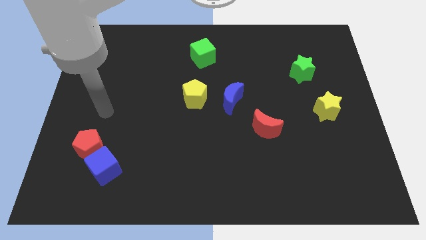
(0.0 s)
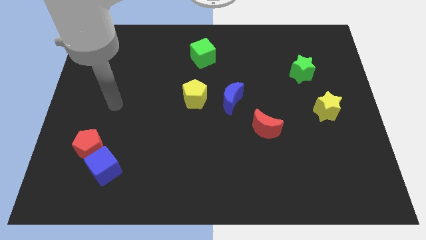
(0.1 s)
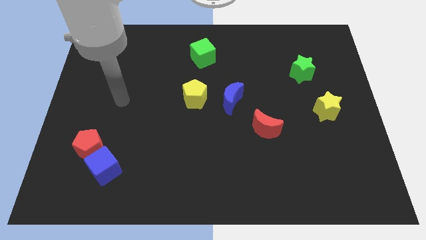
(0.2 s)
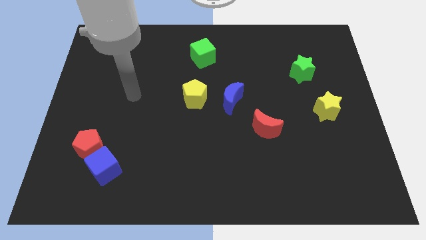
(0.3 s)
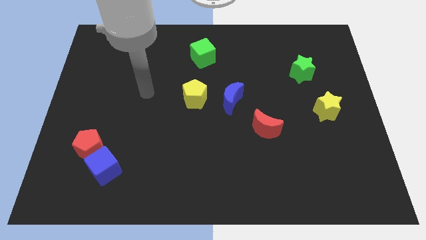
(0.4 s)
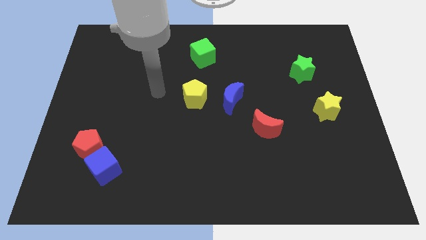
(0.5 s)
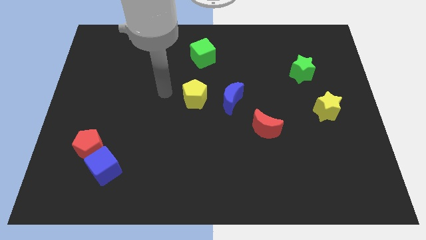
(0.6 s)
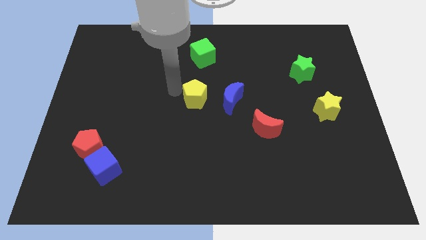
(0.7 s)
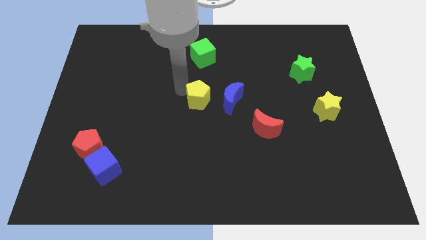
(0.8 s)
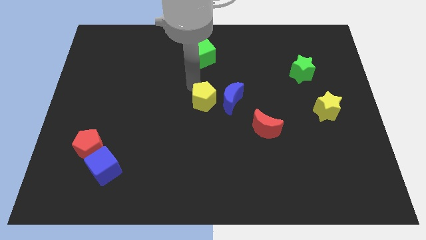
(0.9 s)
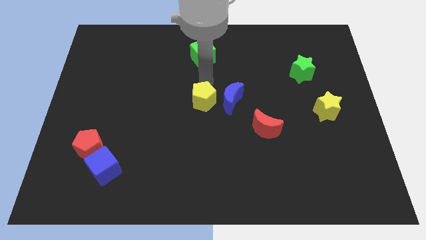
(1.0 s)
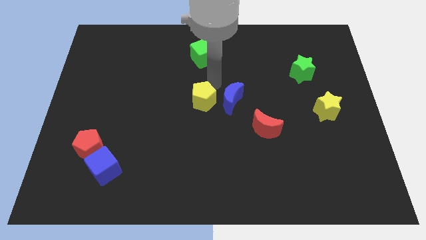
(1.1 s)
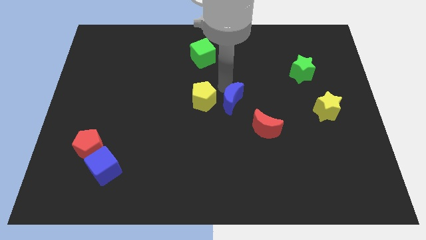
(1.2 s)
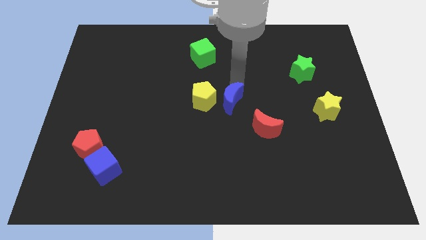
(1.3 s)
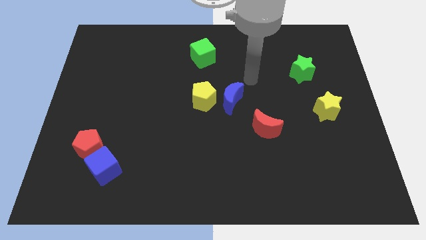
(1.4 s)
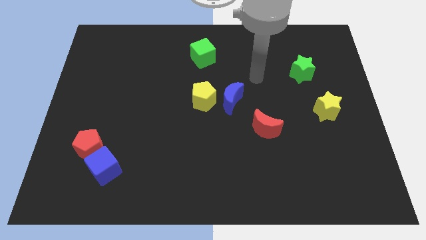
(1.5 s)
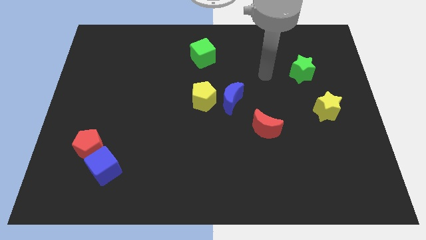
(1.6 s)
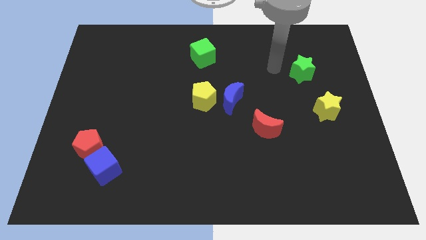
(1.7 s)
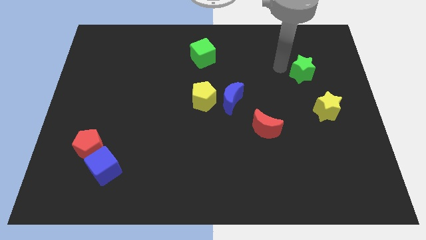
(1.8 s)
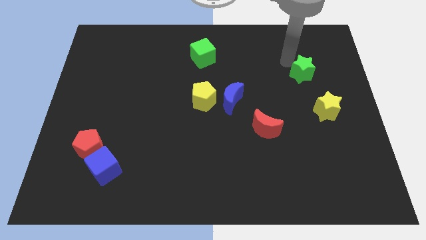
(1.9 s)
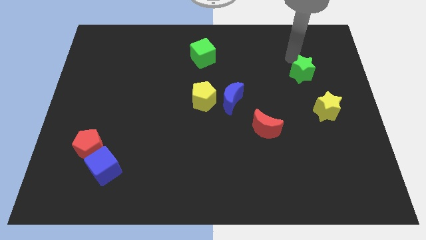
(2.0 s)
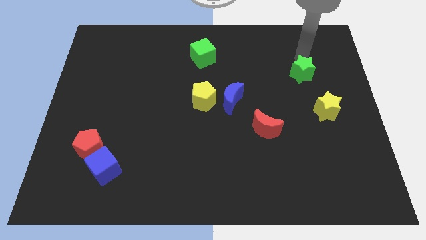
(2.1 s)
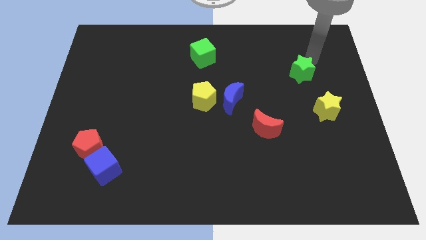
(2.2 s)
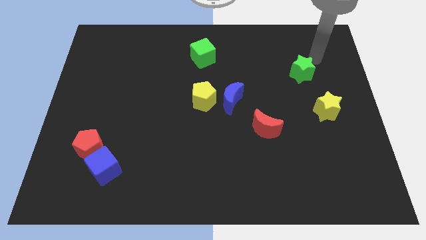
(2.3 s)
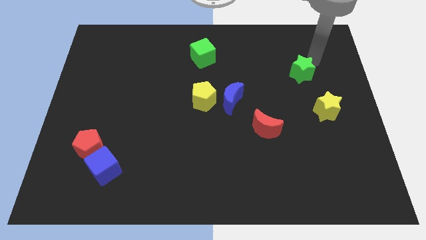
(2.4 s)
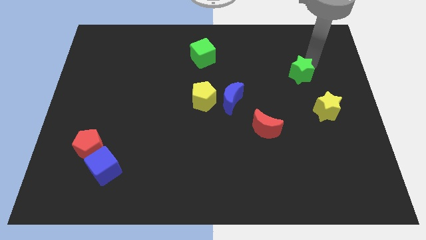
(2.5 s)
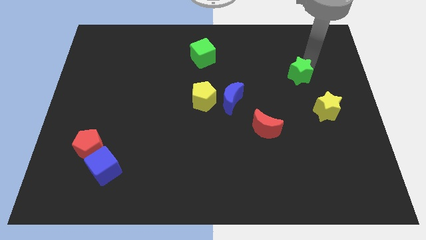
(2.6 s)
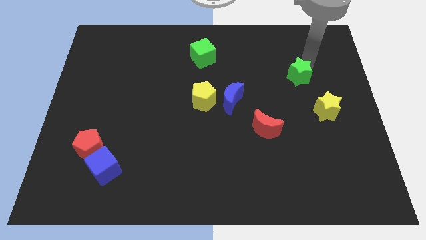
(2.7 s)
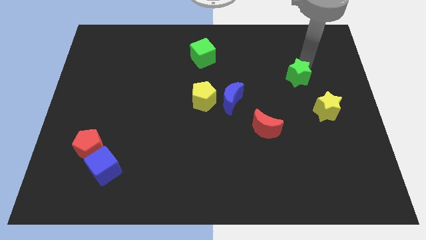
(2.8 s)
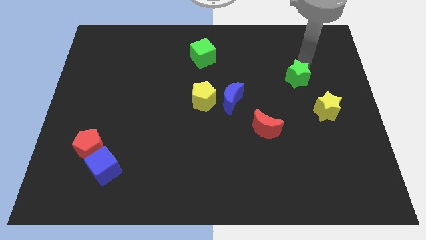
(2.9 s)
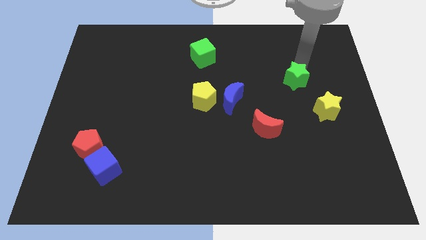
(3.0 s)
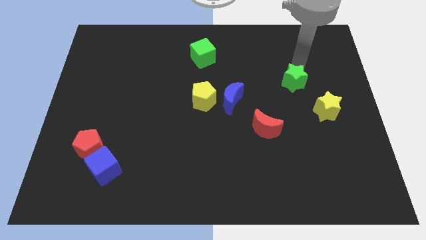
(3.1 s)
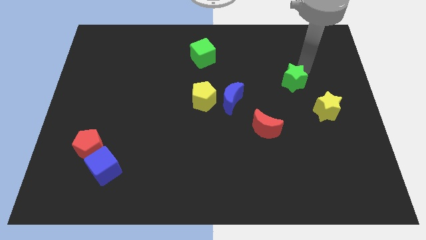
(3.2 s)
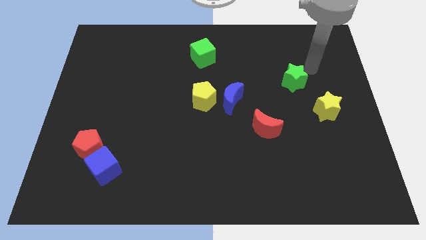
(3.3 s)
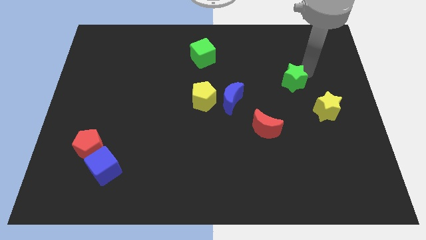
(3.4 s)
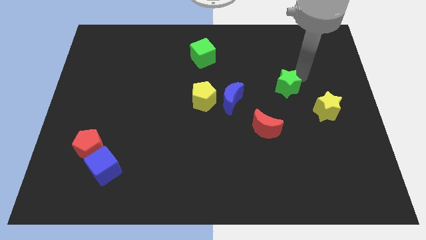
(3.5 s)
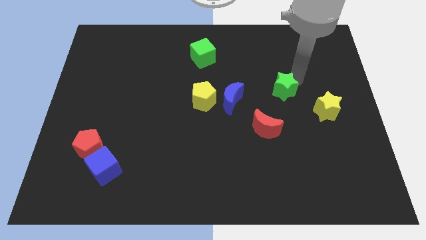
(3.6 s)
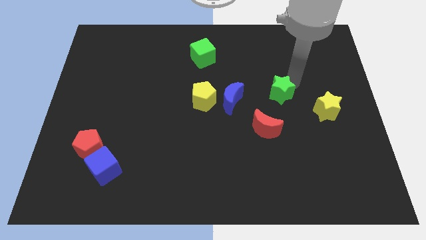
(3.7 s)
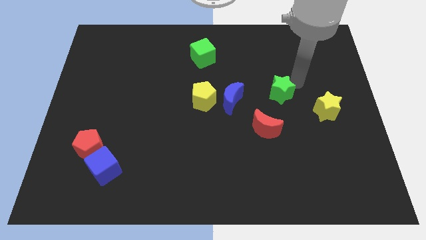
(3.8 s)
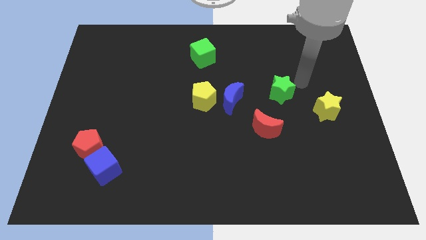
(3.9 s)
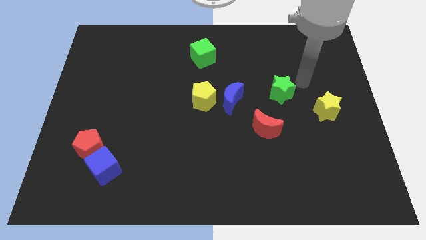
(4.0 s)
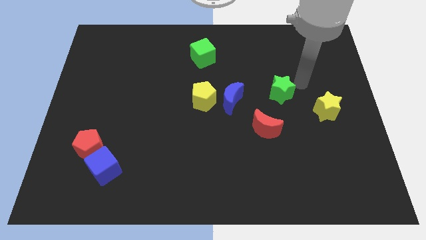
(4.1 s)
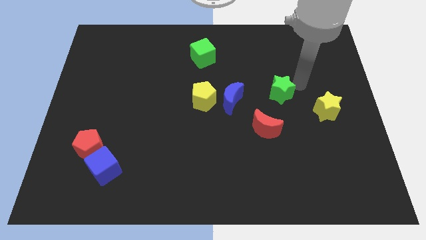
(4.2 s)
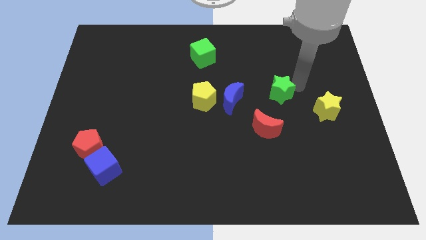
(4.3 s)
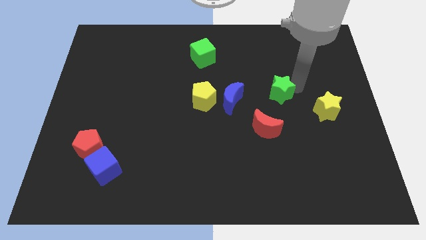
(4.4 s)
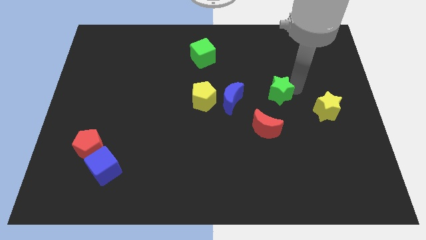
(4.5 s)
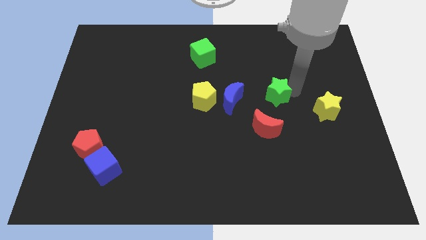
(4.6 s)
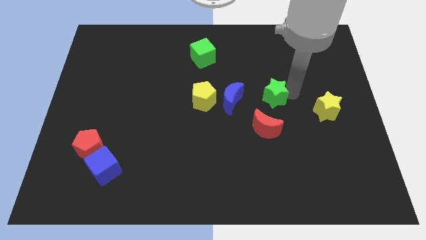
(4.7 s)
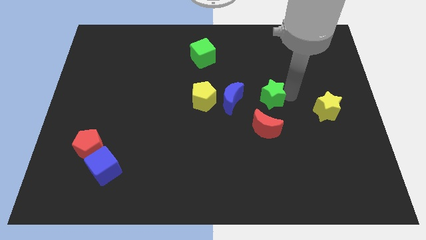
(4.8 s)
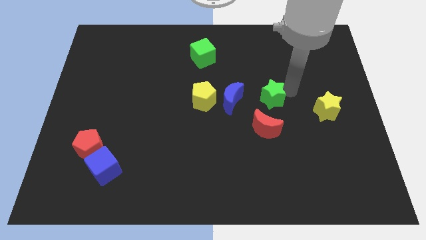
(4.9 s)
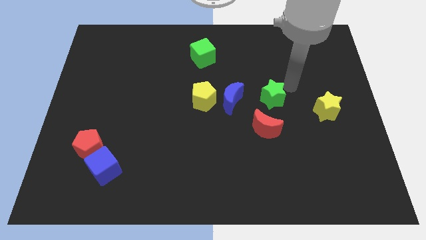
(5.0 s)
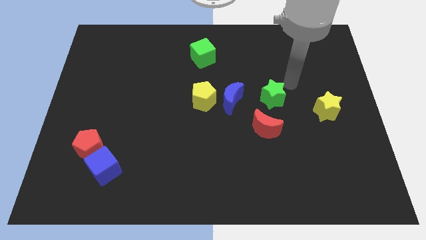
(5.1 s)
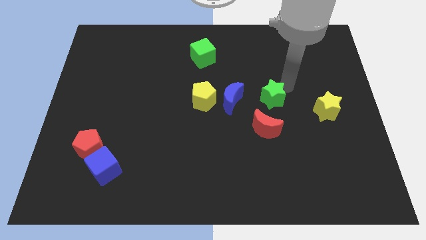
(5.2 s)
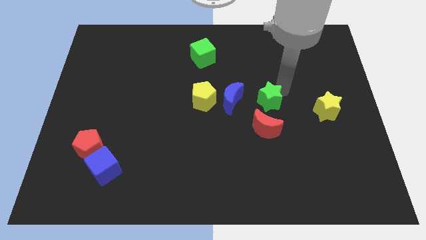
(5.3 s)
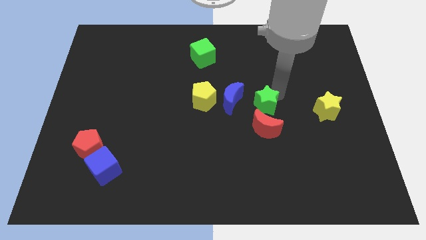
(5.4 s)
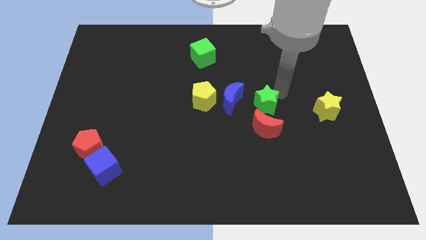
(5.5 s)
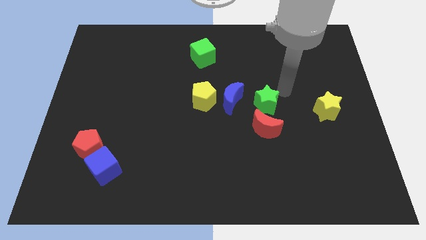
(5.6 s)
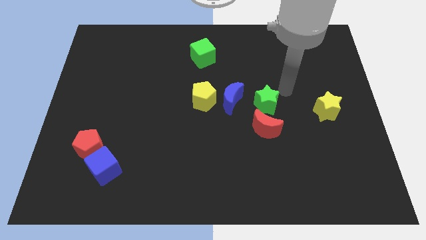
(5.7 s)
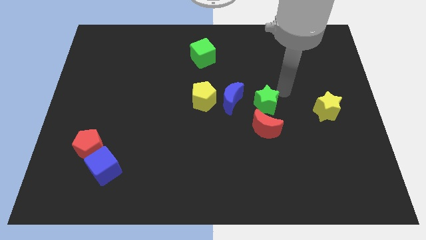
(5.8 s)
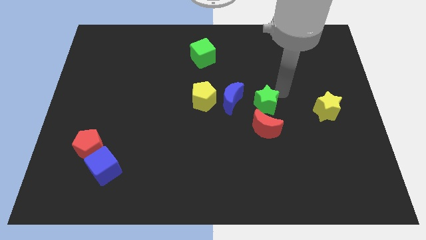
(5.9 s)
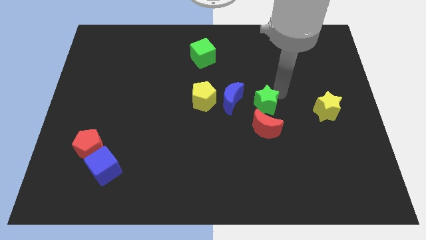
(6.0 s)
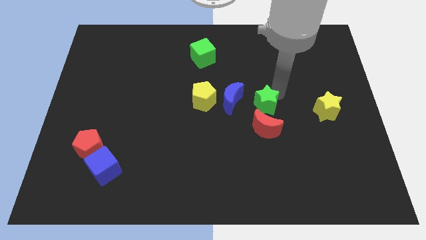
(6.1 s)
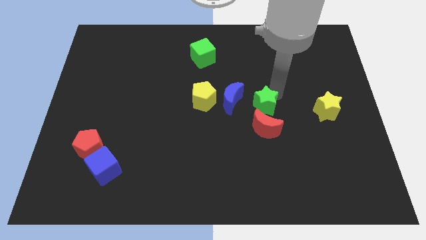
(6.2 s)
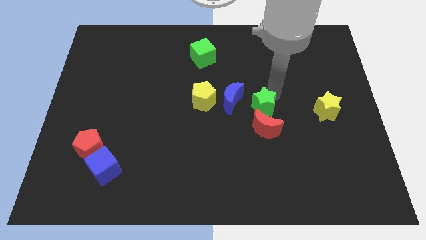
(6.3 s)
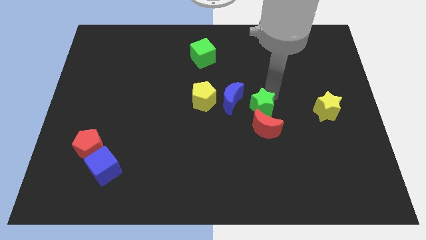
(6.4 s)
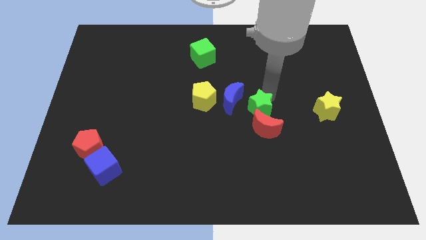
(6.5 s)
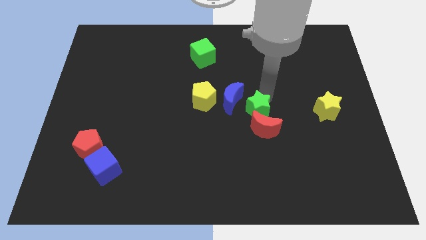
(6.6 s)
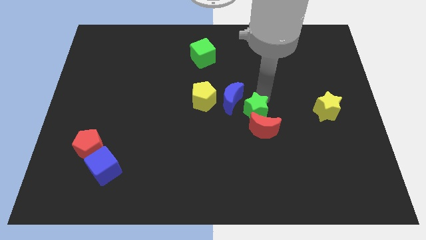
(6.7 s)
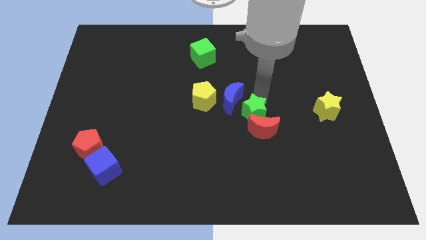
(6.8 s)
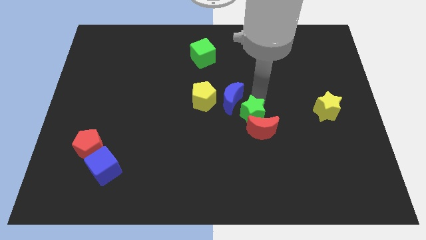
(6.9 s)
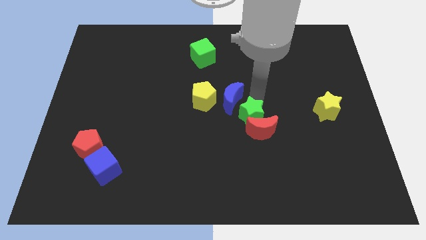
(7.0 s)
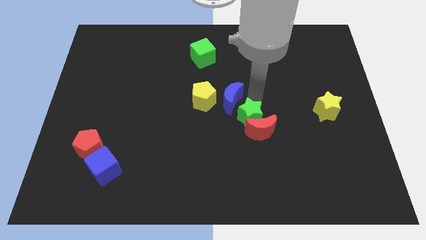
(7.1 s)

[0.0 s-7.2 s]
push the green star downwards and left

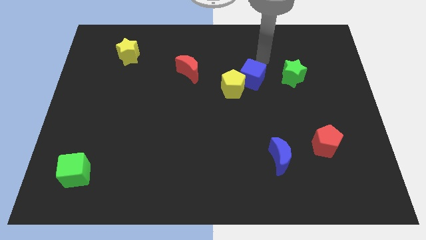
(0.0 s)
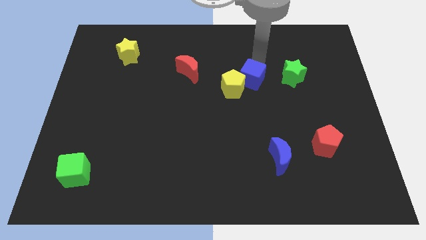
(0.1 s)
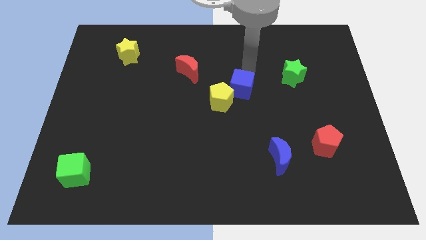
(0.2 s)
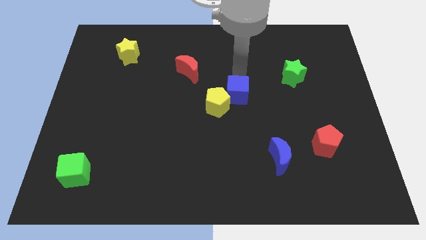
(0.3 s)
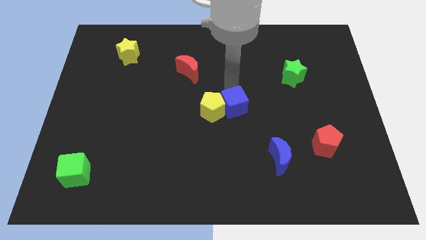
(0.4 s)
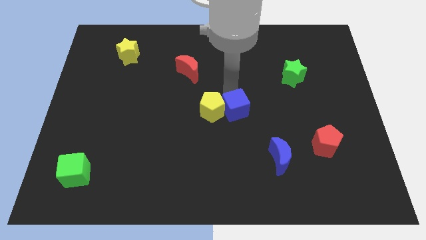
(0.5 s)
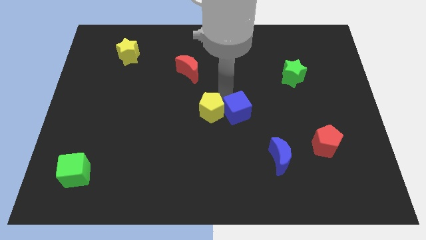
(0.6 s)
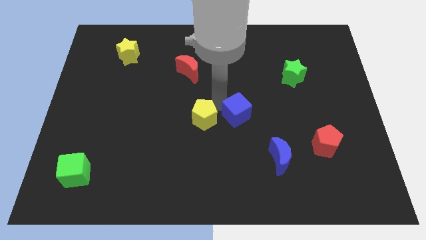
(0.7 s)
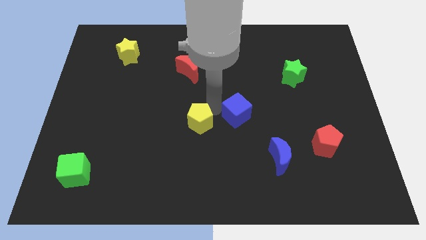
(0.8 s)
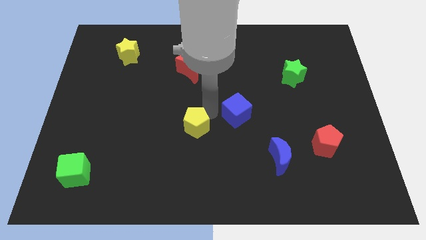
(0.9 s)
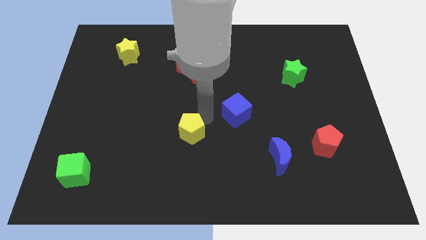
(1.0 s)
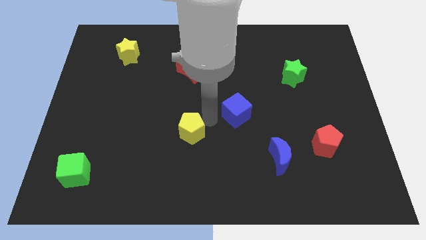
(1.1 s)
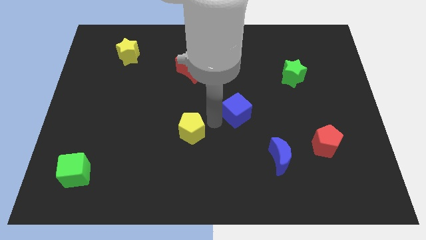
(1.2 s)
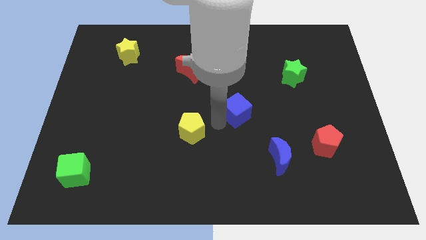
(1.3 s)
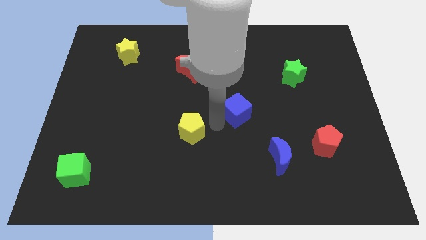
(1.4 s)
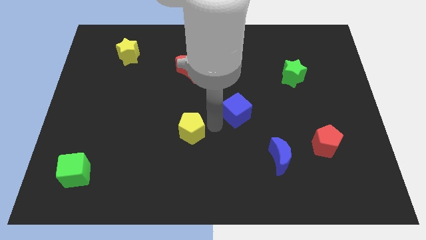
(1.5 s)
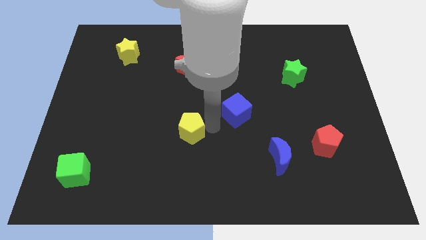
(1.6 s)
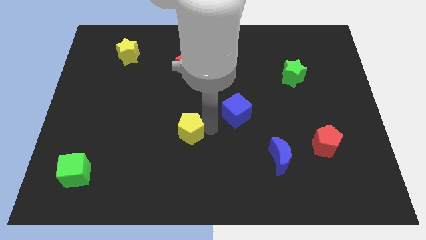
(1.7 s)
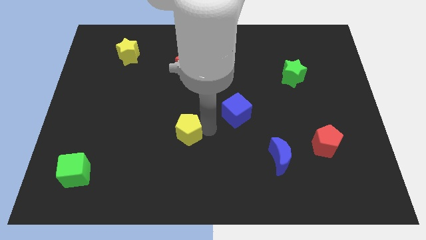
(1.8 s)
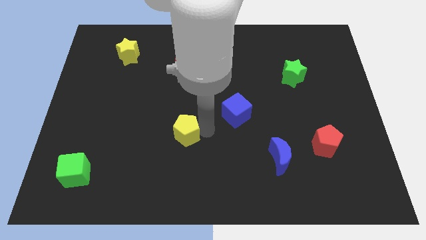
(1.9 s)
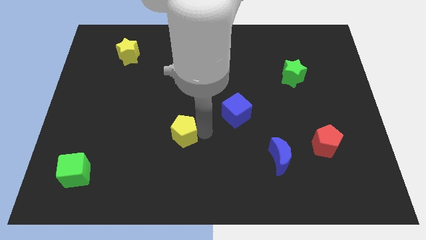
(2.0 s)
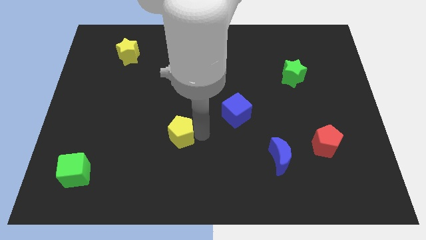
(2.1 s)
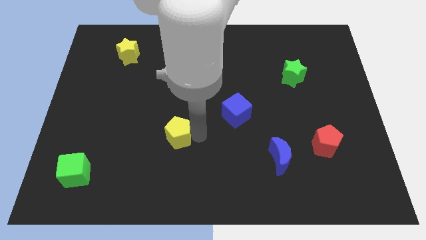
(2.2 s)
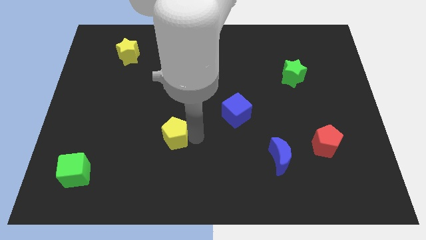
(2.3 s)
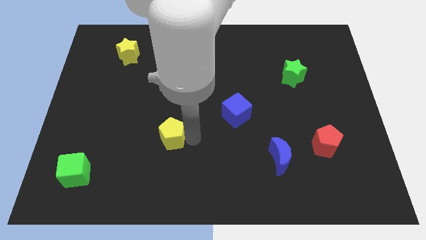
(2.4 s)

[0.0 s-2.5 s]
move the yellow pentagon diagonally downwards and to the left
